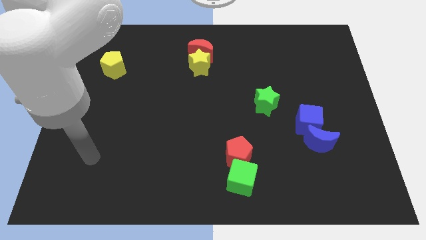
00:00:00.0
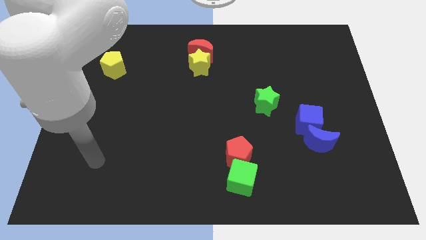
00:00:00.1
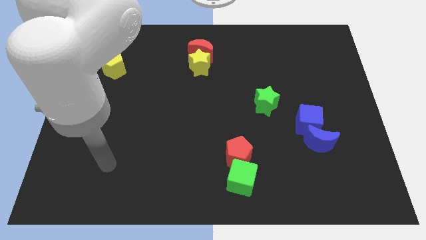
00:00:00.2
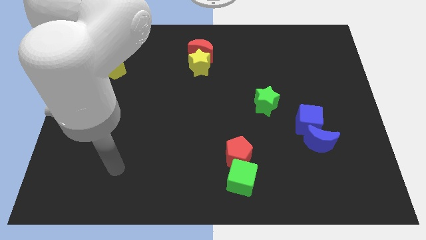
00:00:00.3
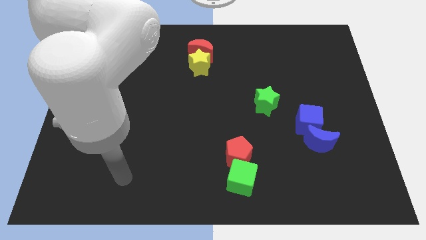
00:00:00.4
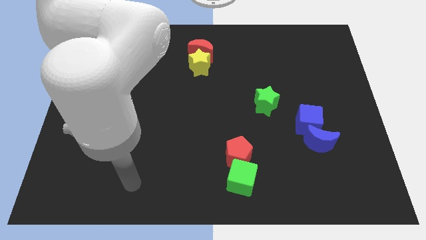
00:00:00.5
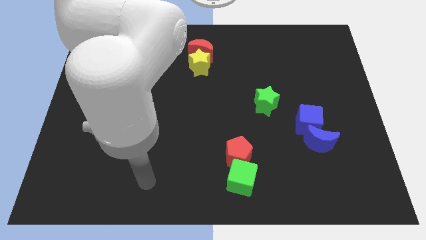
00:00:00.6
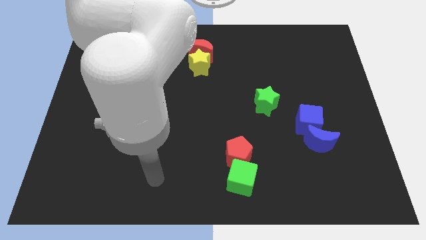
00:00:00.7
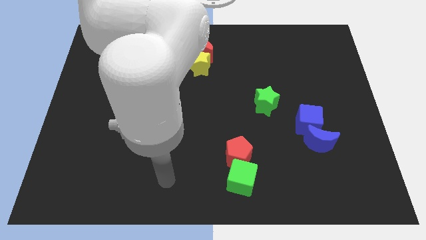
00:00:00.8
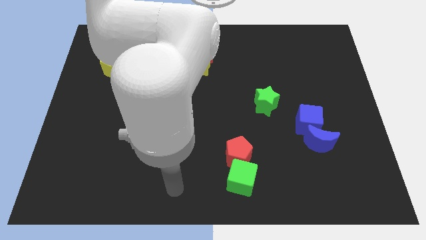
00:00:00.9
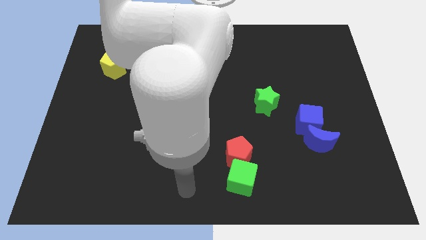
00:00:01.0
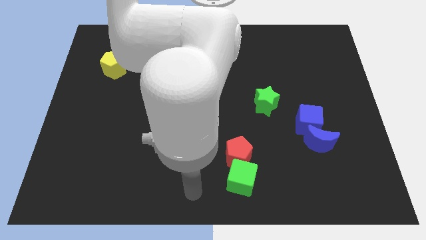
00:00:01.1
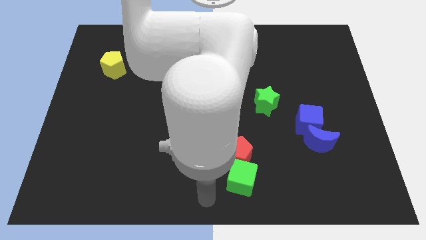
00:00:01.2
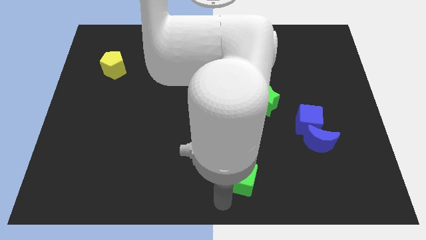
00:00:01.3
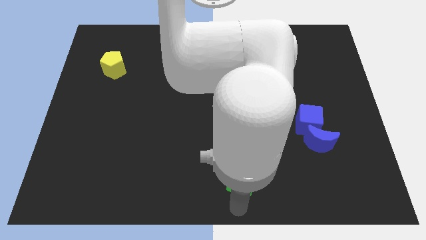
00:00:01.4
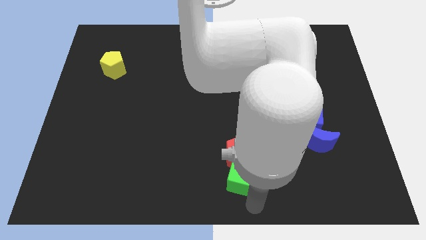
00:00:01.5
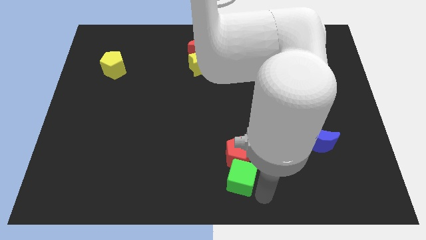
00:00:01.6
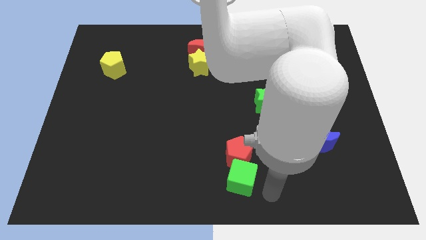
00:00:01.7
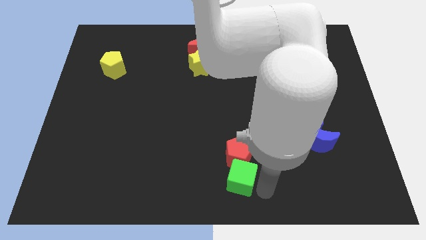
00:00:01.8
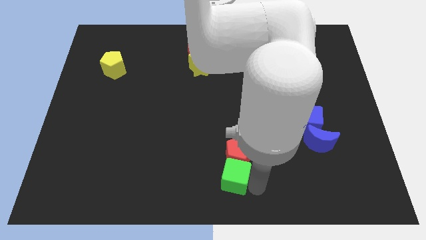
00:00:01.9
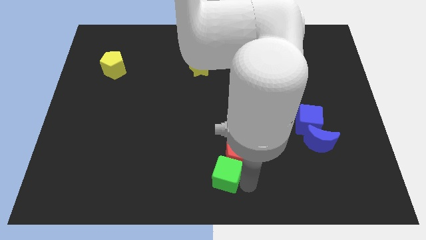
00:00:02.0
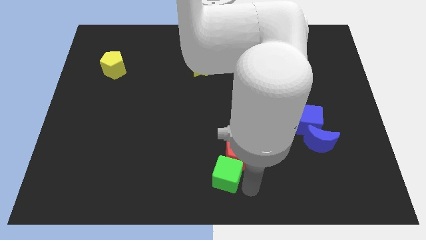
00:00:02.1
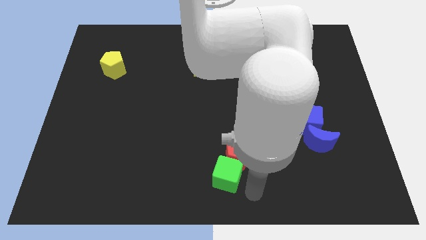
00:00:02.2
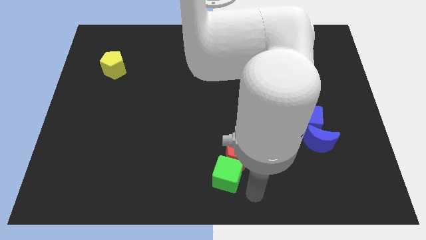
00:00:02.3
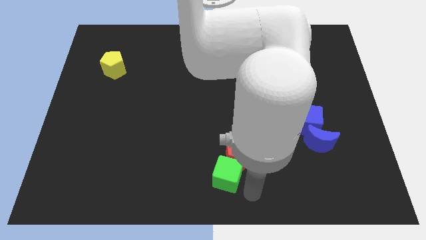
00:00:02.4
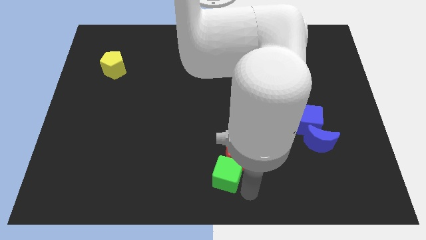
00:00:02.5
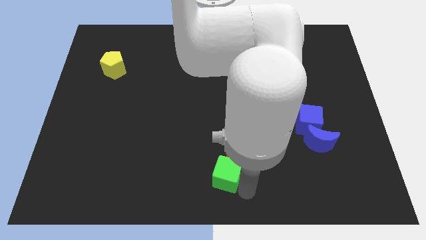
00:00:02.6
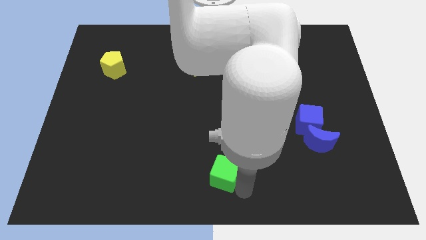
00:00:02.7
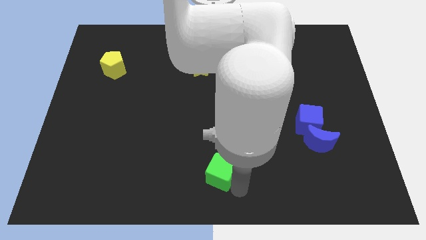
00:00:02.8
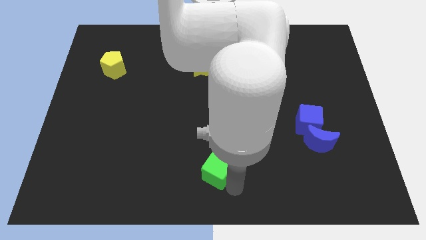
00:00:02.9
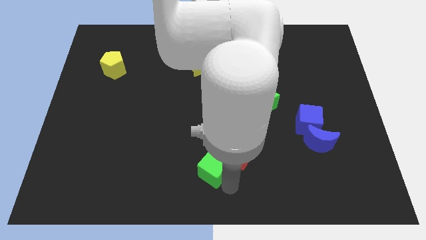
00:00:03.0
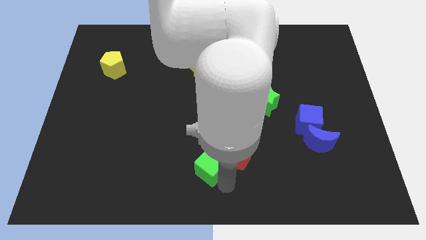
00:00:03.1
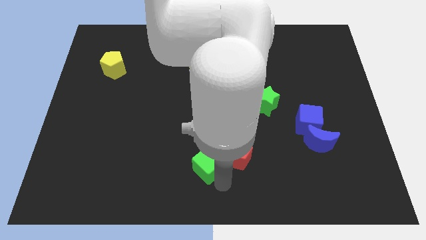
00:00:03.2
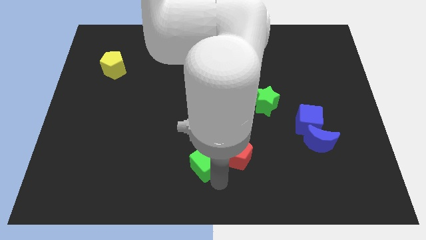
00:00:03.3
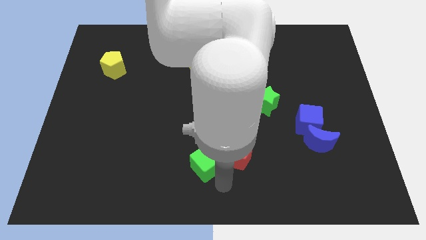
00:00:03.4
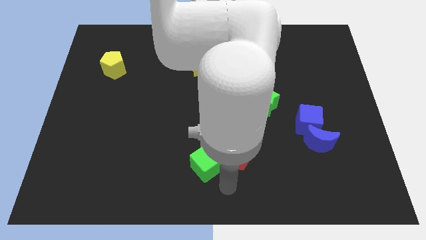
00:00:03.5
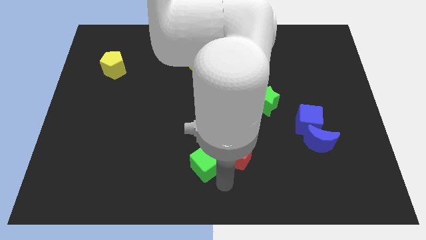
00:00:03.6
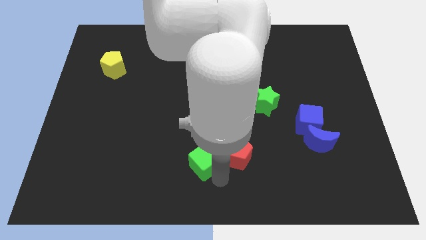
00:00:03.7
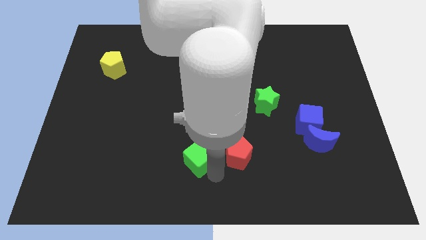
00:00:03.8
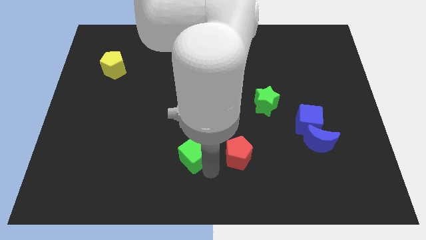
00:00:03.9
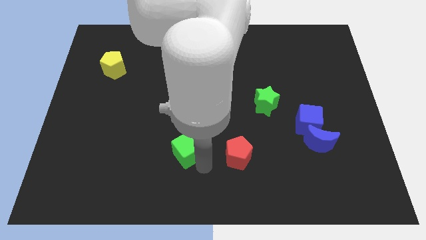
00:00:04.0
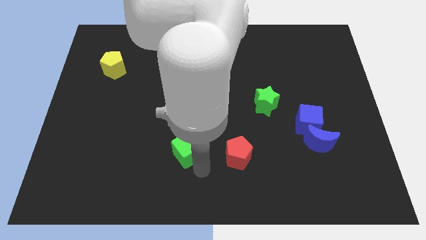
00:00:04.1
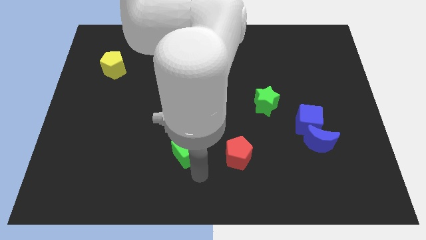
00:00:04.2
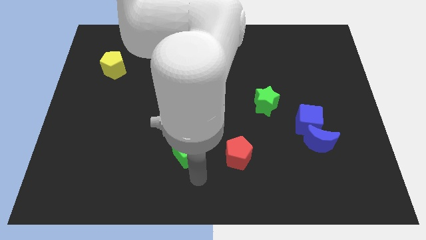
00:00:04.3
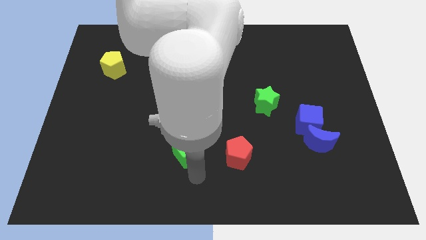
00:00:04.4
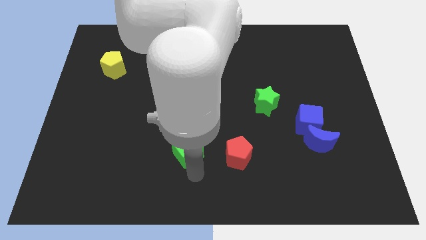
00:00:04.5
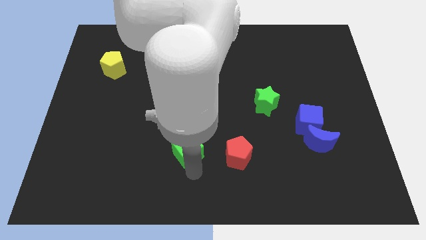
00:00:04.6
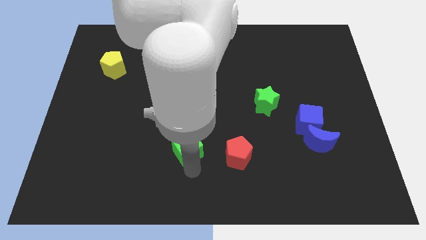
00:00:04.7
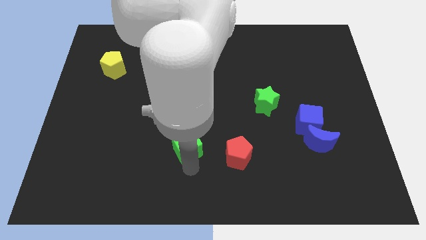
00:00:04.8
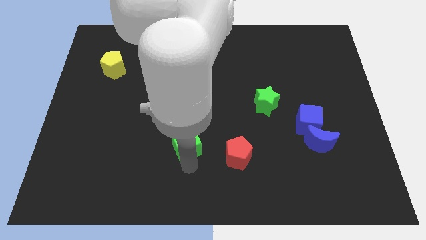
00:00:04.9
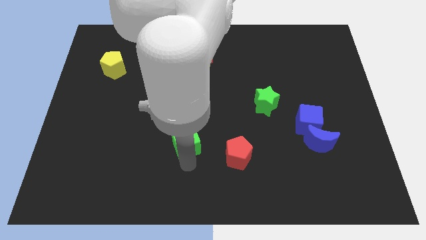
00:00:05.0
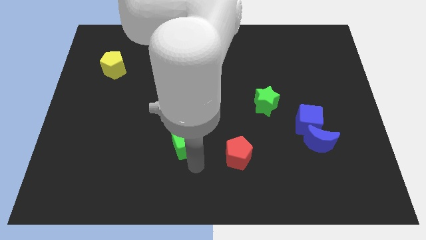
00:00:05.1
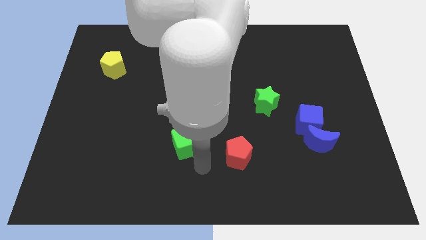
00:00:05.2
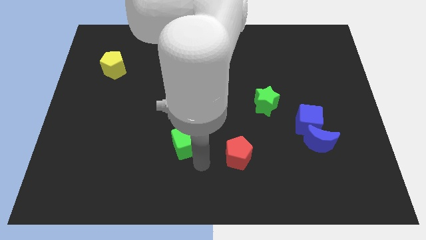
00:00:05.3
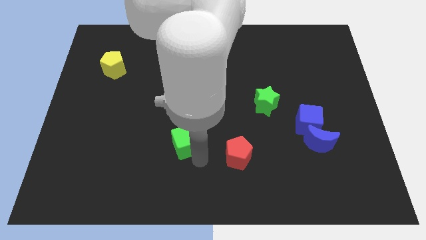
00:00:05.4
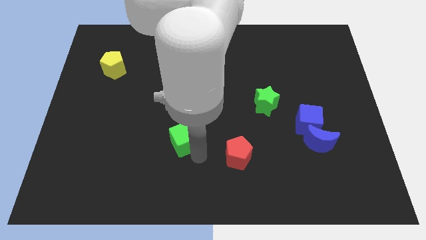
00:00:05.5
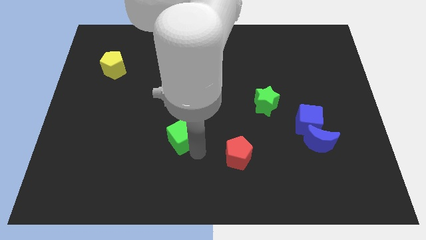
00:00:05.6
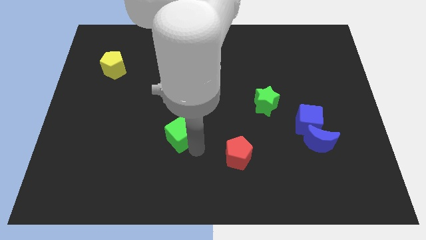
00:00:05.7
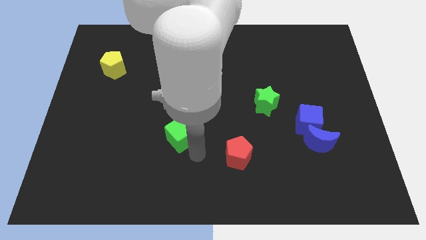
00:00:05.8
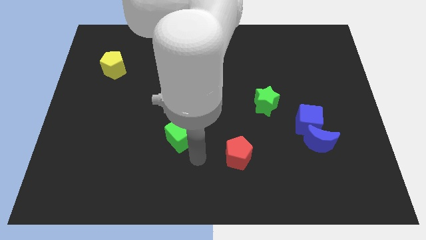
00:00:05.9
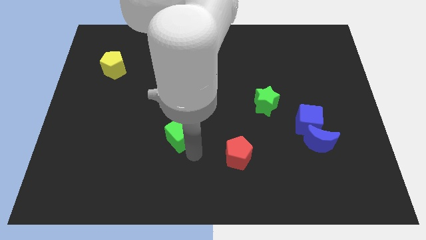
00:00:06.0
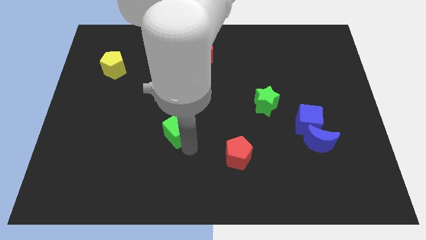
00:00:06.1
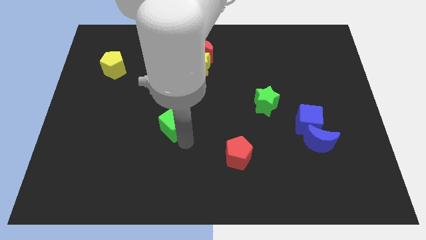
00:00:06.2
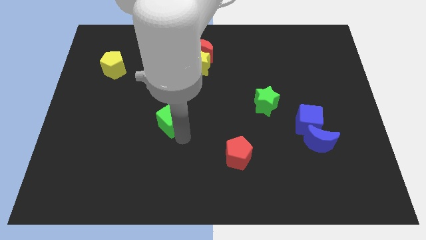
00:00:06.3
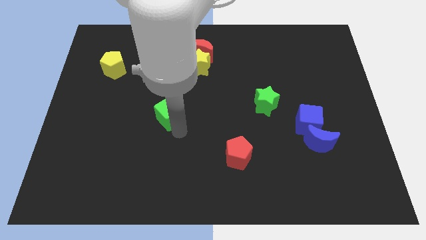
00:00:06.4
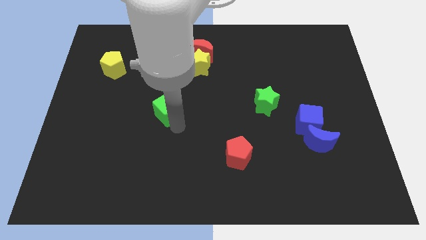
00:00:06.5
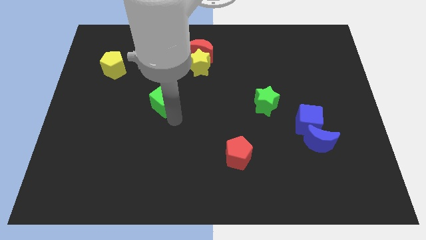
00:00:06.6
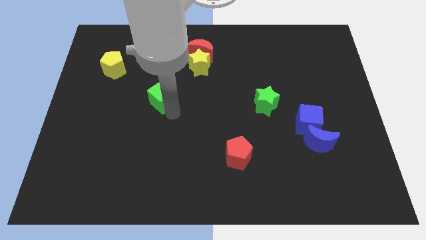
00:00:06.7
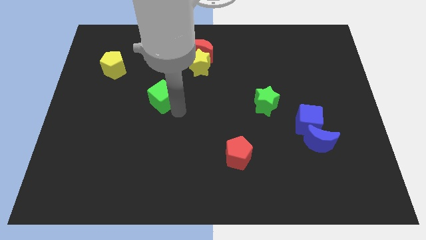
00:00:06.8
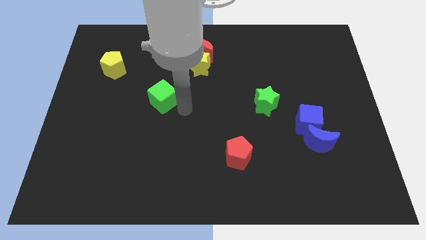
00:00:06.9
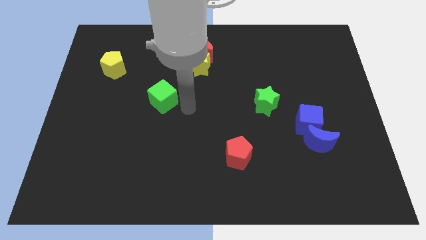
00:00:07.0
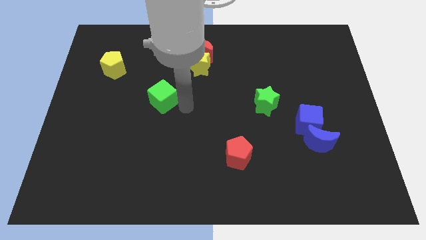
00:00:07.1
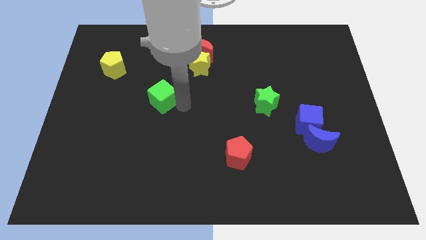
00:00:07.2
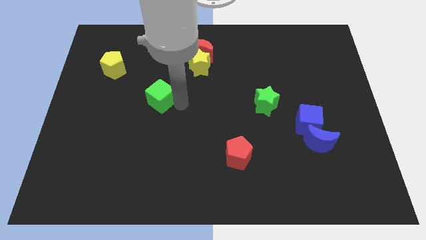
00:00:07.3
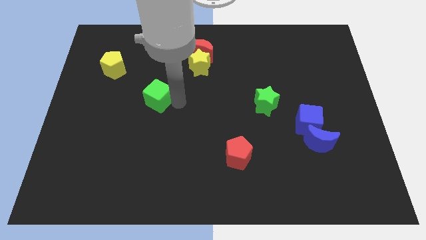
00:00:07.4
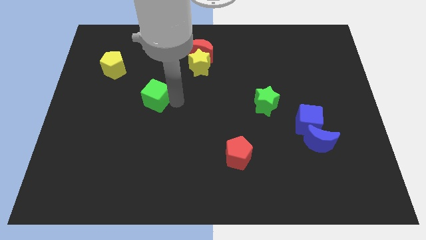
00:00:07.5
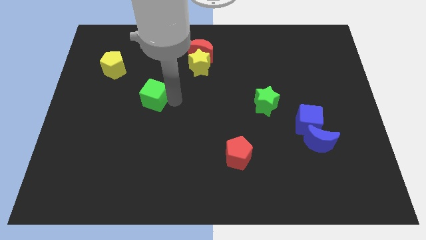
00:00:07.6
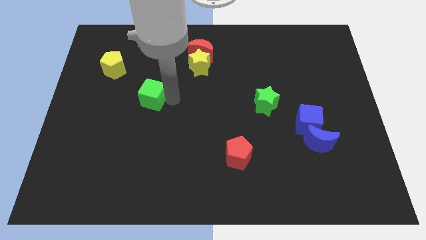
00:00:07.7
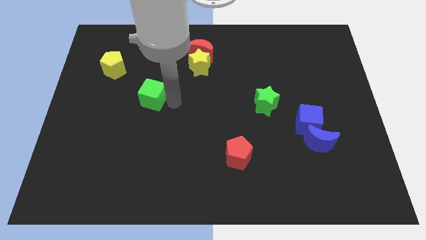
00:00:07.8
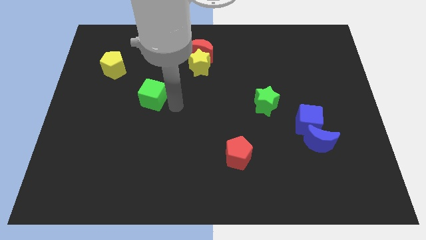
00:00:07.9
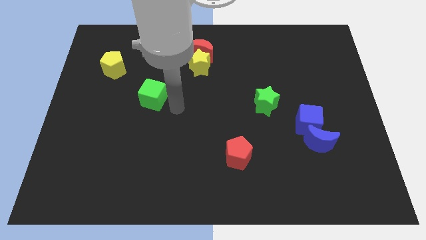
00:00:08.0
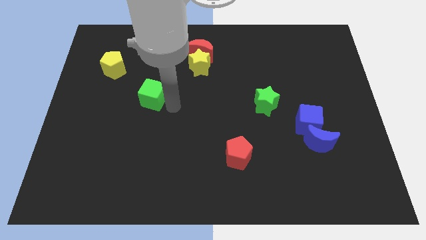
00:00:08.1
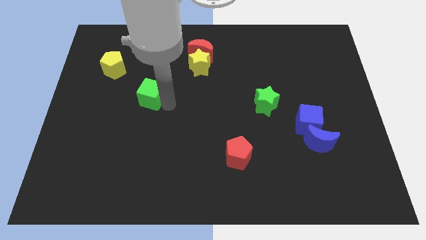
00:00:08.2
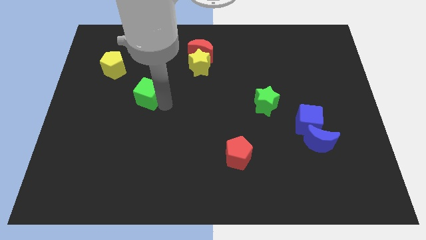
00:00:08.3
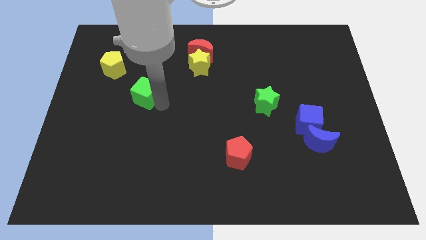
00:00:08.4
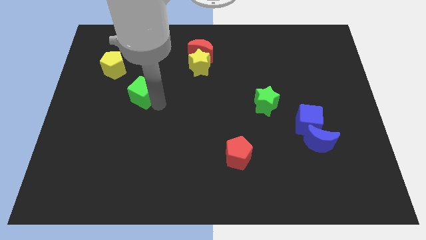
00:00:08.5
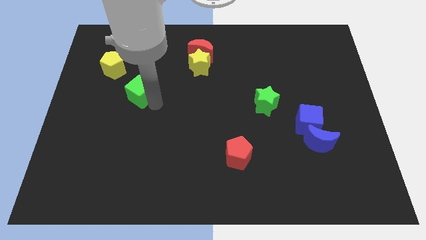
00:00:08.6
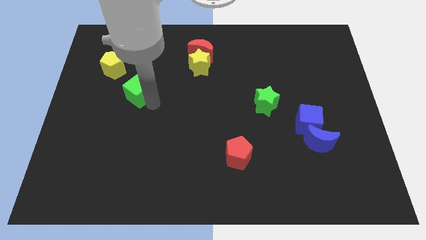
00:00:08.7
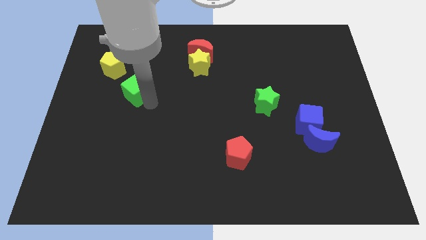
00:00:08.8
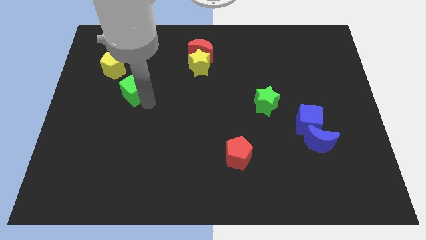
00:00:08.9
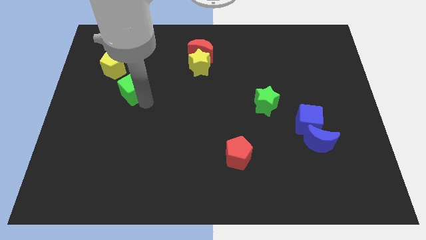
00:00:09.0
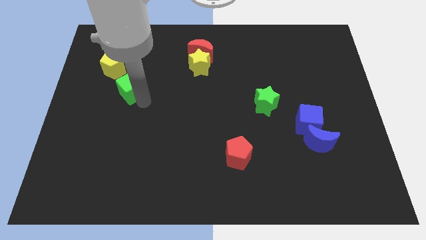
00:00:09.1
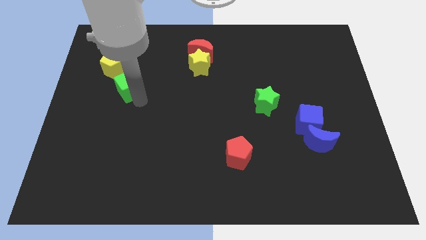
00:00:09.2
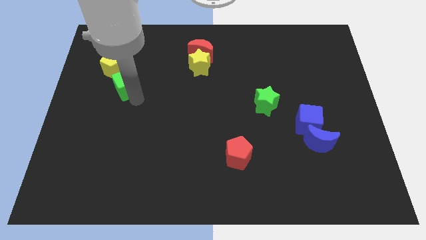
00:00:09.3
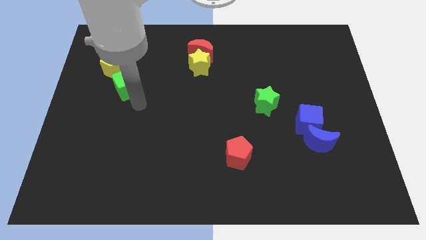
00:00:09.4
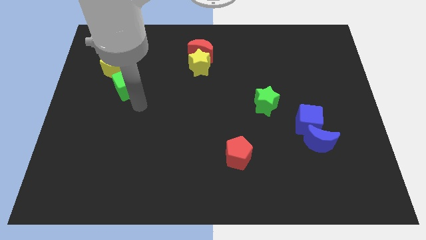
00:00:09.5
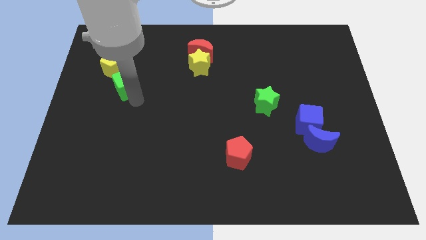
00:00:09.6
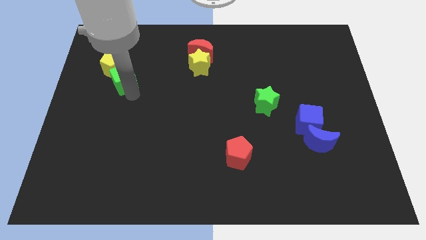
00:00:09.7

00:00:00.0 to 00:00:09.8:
push the green cube close to the yellow pentagon
